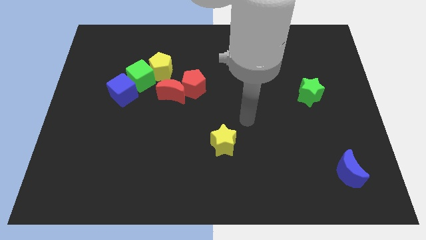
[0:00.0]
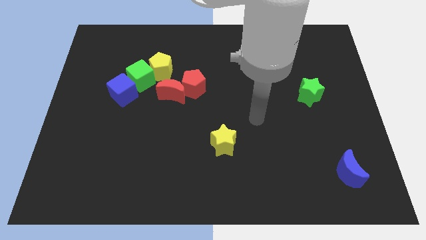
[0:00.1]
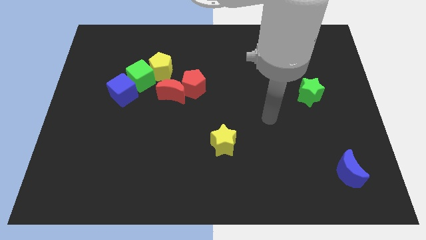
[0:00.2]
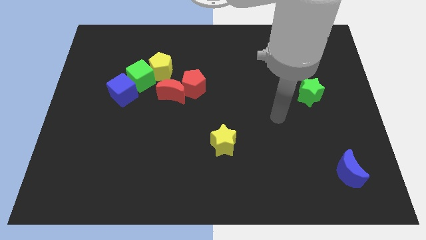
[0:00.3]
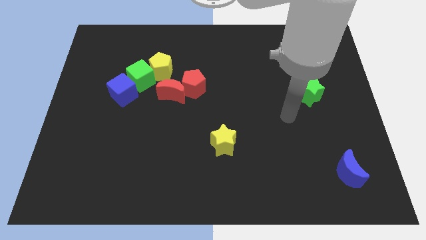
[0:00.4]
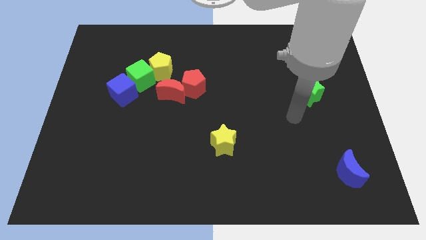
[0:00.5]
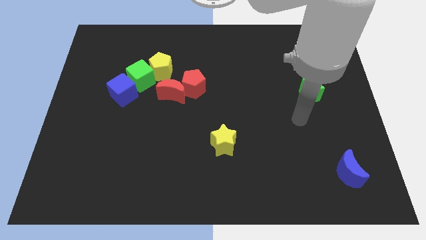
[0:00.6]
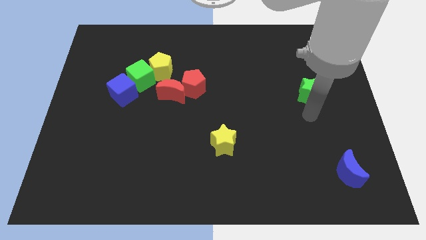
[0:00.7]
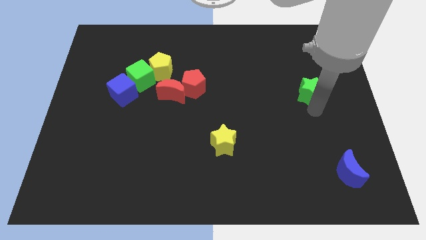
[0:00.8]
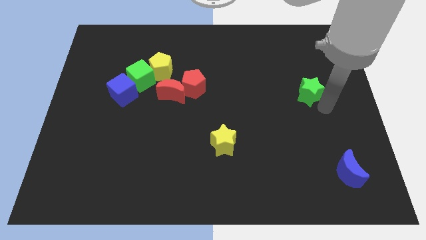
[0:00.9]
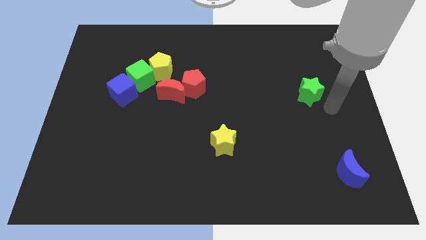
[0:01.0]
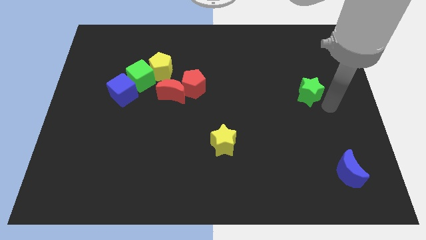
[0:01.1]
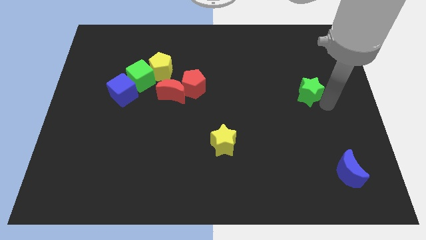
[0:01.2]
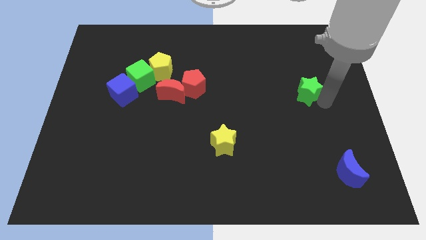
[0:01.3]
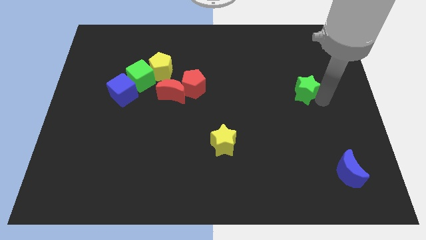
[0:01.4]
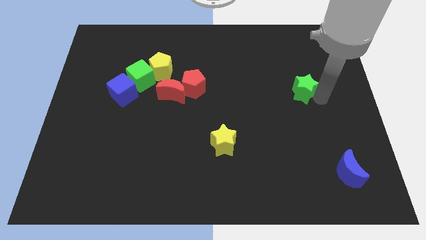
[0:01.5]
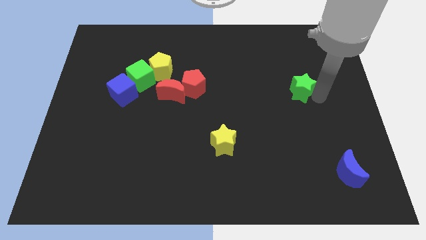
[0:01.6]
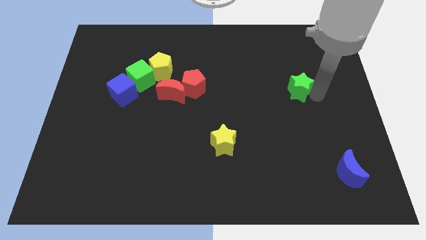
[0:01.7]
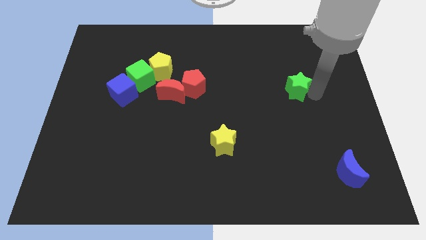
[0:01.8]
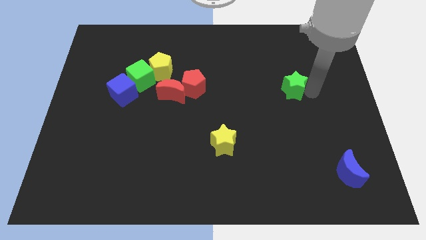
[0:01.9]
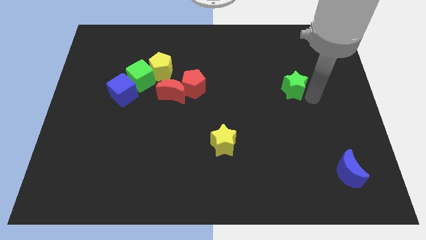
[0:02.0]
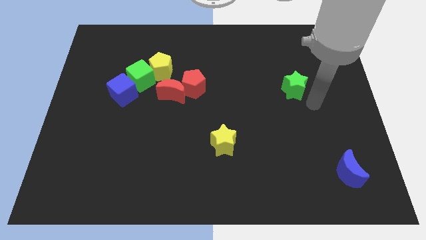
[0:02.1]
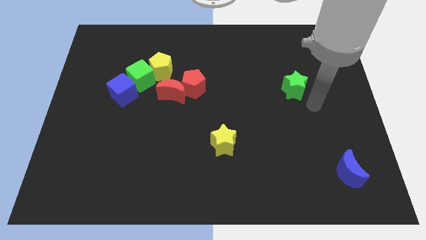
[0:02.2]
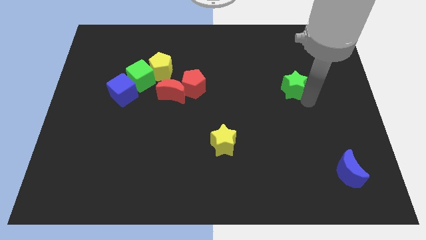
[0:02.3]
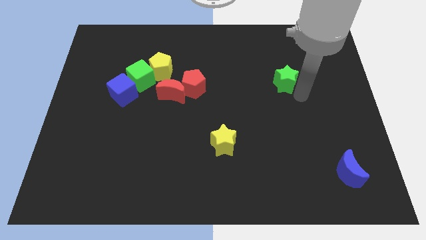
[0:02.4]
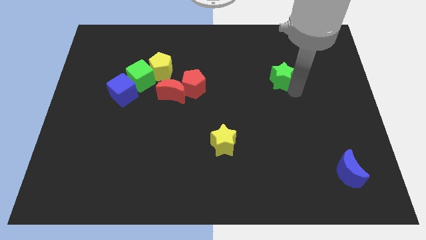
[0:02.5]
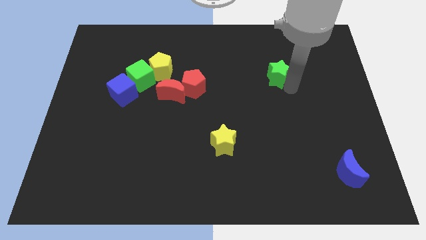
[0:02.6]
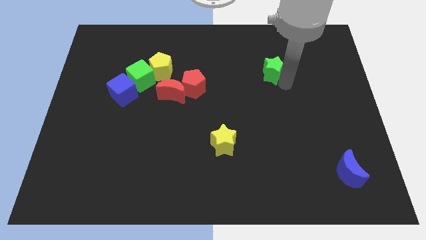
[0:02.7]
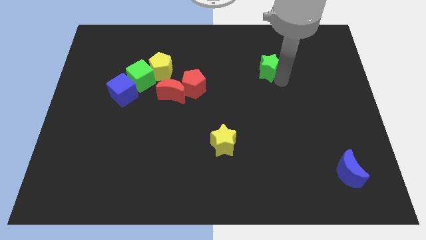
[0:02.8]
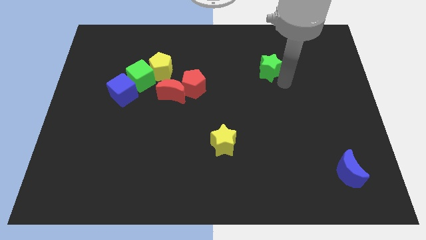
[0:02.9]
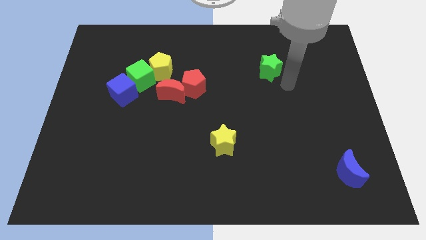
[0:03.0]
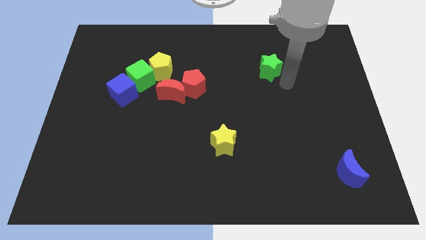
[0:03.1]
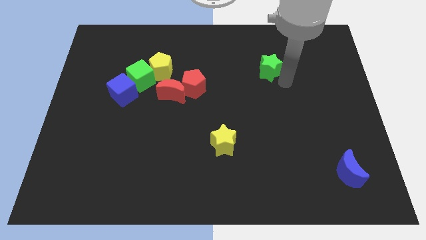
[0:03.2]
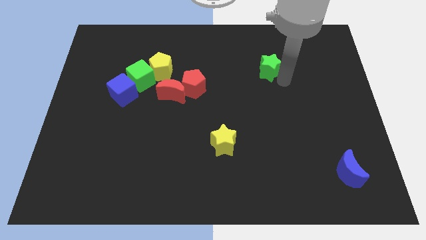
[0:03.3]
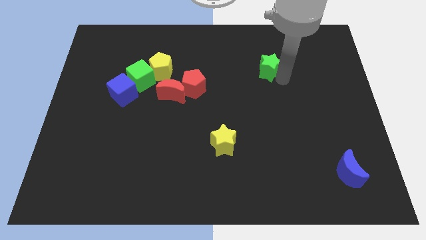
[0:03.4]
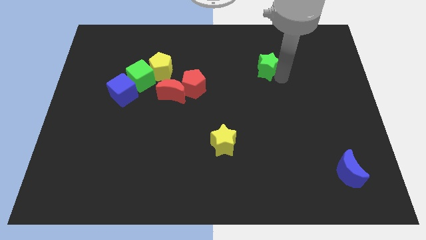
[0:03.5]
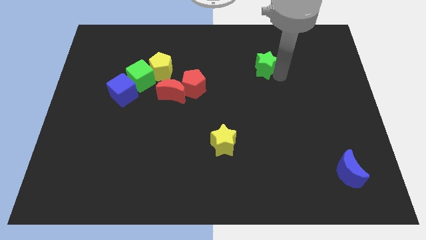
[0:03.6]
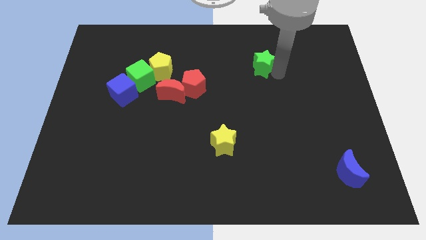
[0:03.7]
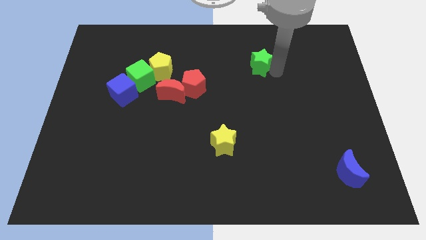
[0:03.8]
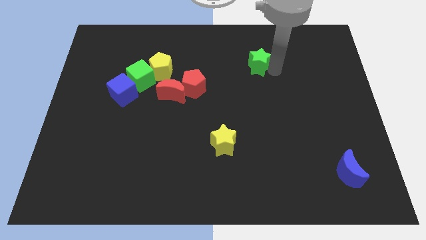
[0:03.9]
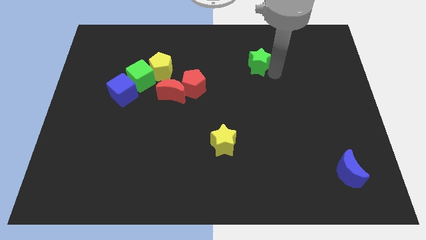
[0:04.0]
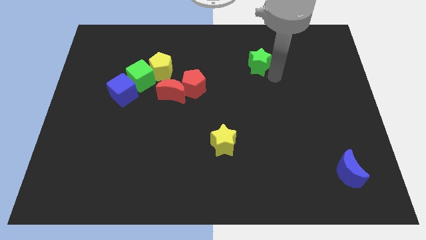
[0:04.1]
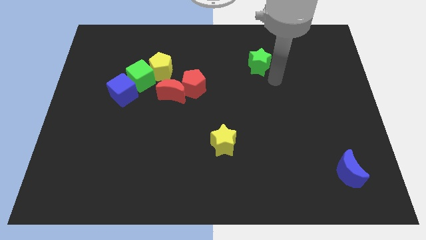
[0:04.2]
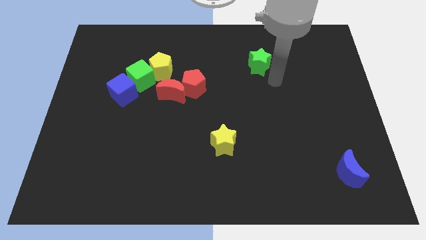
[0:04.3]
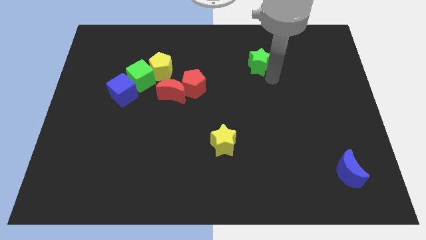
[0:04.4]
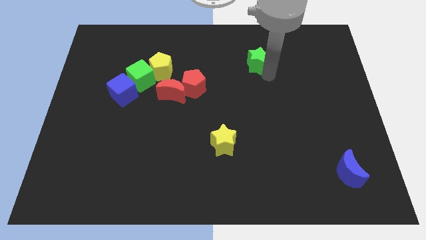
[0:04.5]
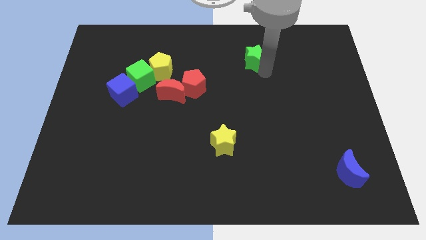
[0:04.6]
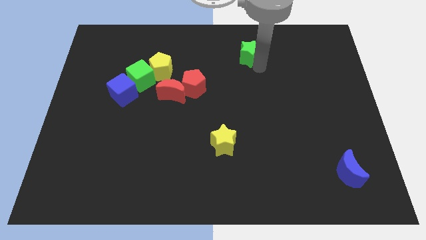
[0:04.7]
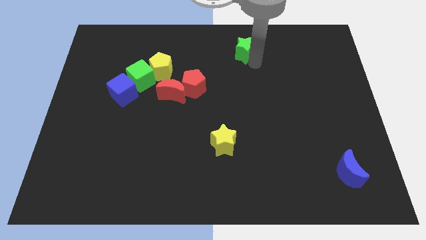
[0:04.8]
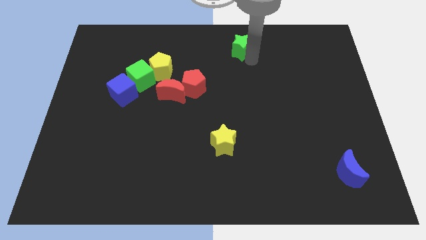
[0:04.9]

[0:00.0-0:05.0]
move the green star to the top

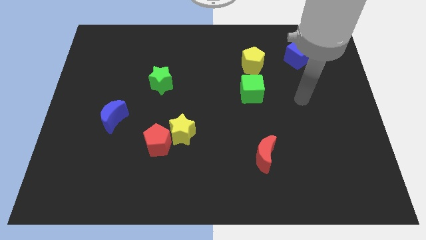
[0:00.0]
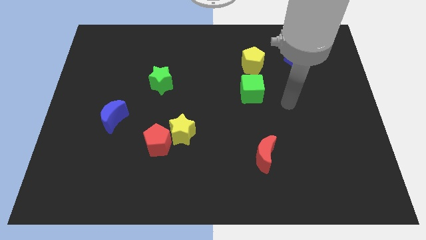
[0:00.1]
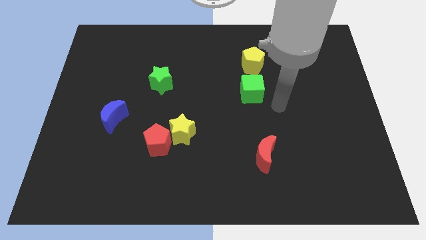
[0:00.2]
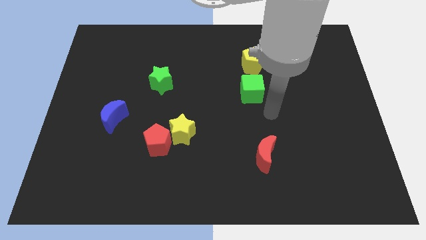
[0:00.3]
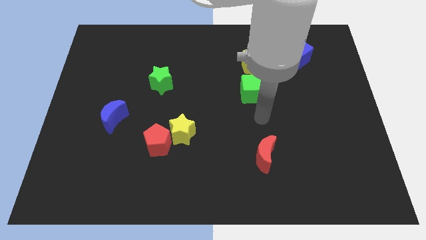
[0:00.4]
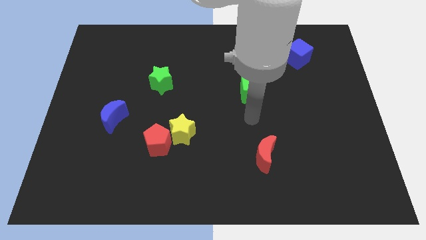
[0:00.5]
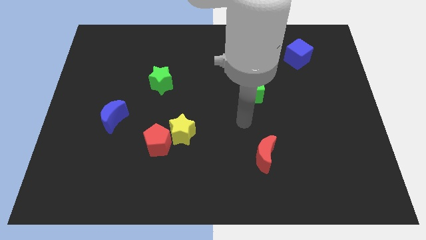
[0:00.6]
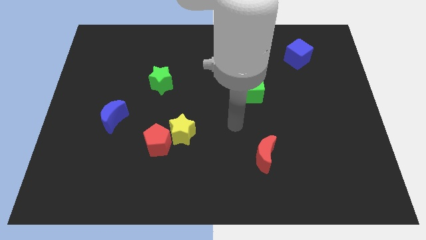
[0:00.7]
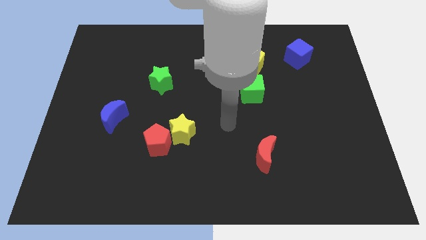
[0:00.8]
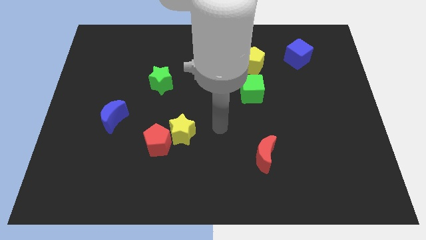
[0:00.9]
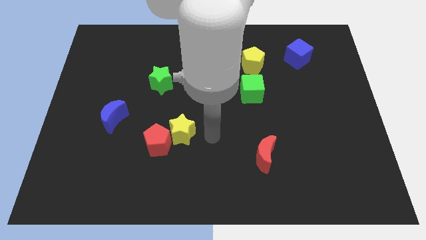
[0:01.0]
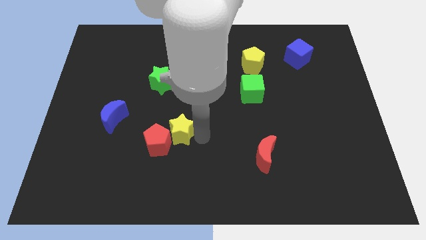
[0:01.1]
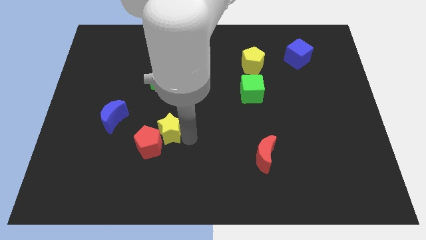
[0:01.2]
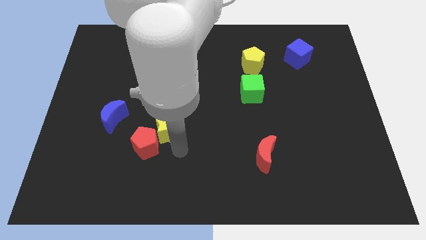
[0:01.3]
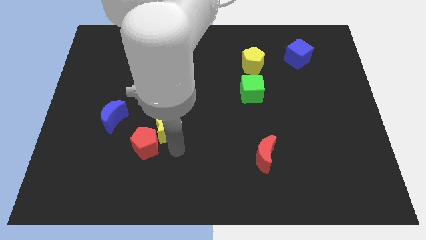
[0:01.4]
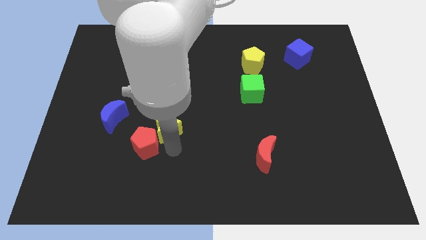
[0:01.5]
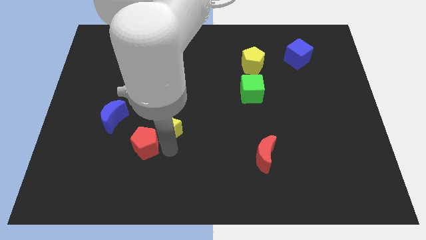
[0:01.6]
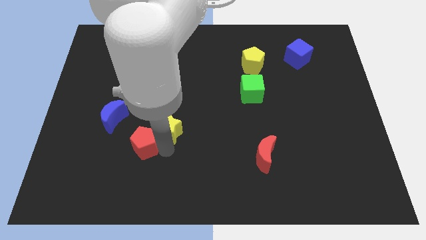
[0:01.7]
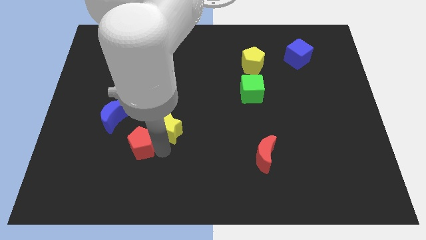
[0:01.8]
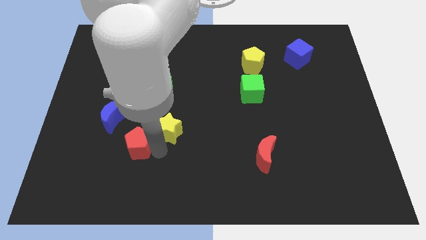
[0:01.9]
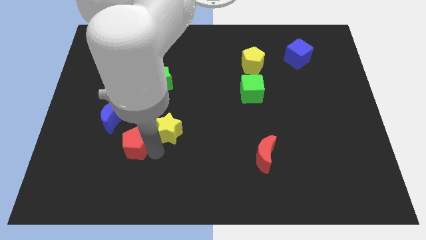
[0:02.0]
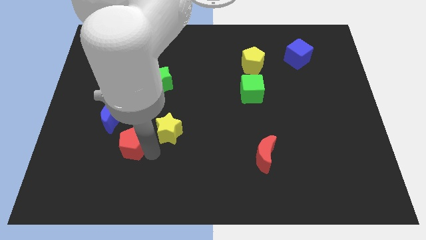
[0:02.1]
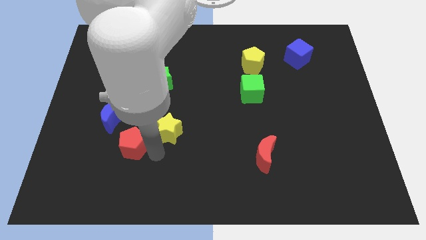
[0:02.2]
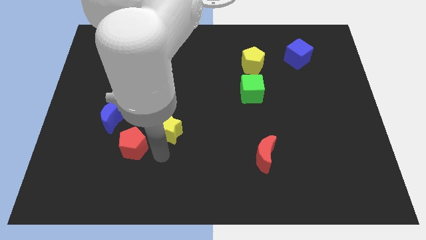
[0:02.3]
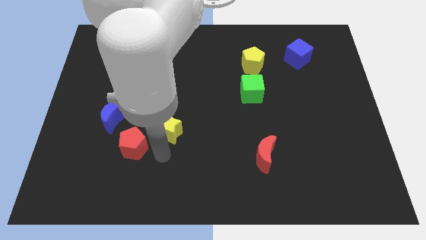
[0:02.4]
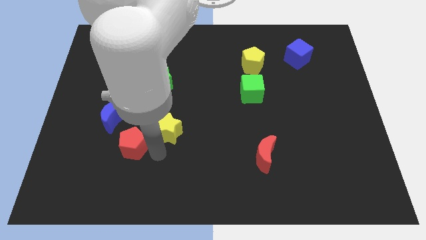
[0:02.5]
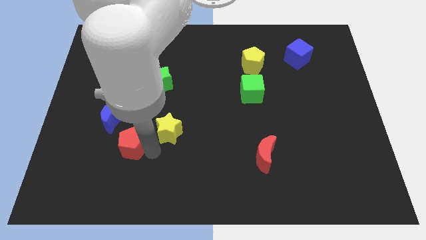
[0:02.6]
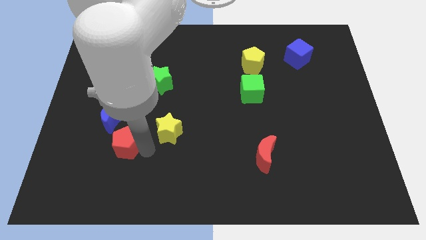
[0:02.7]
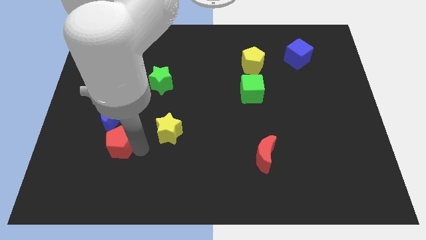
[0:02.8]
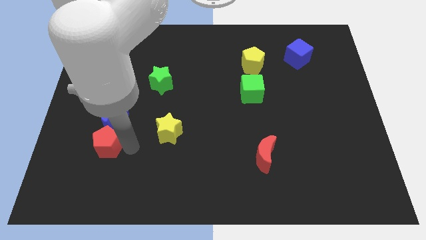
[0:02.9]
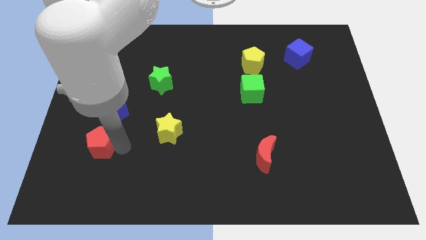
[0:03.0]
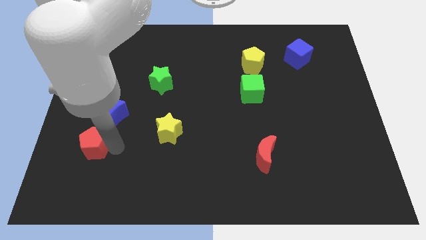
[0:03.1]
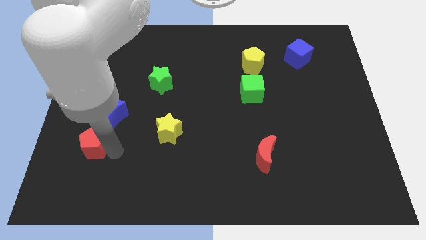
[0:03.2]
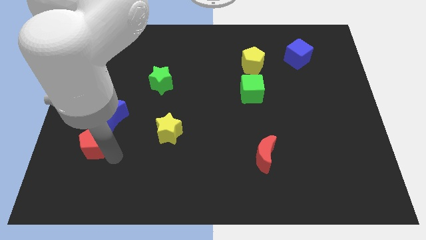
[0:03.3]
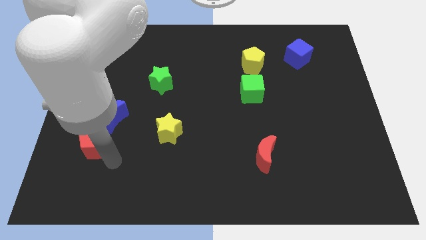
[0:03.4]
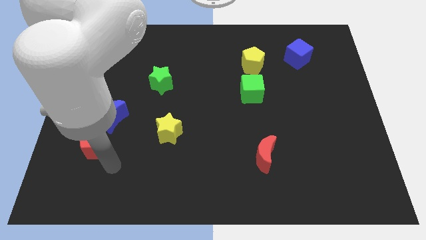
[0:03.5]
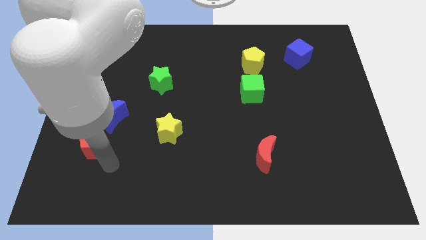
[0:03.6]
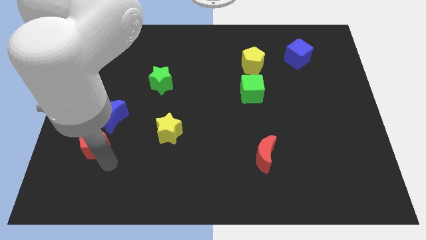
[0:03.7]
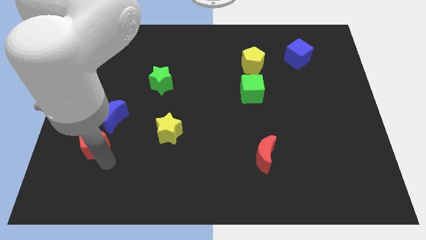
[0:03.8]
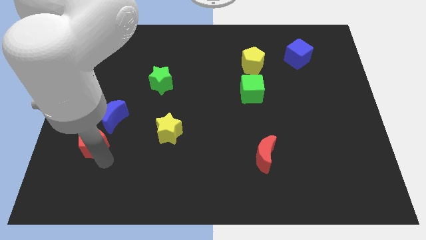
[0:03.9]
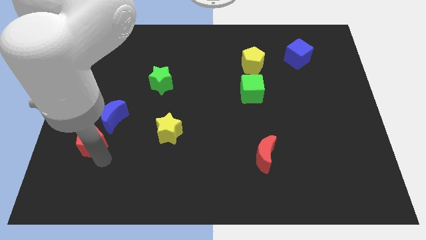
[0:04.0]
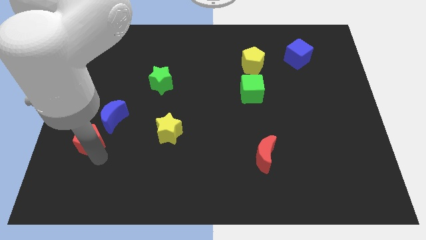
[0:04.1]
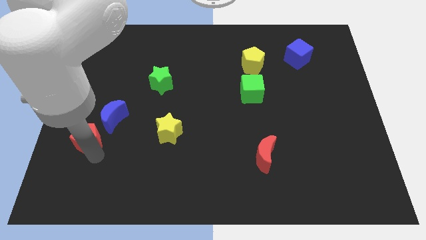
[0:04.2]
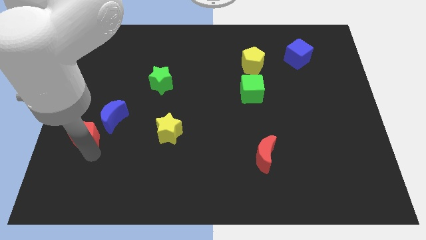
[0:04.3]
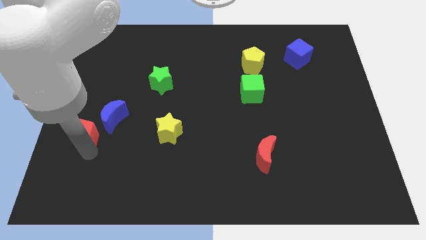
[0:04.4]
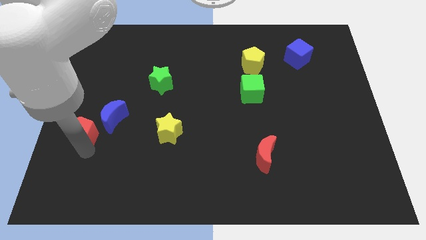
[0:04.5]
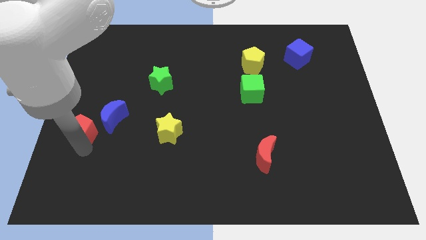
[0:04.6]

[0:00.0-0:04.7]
slide the red pentagon to the center left
